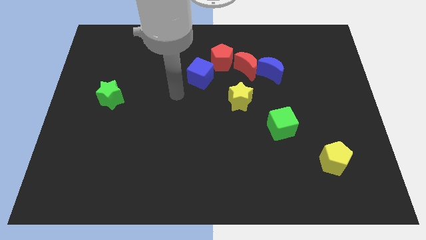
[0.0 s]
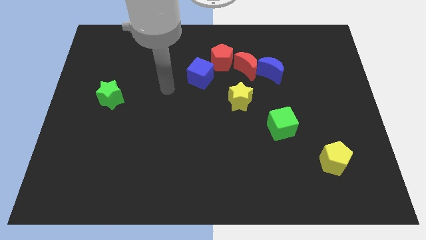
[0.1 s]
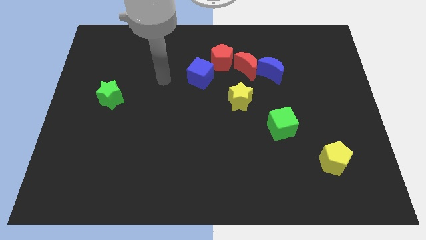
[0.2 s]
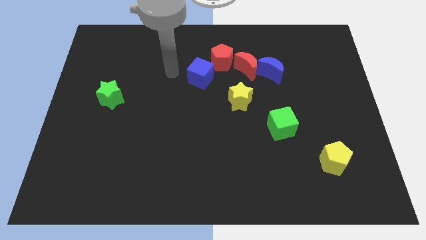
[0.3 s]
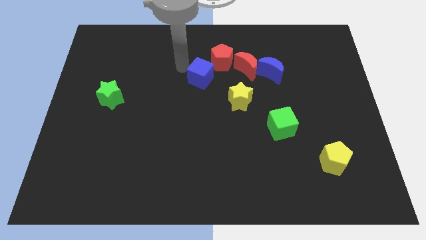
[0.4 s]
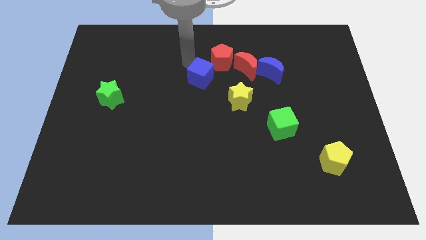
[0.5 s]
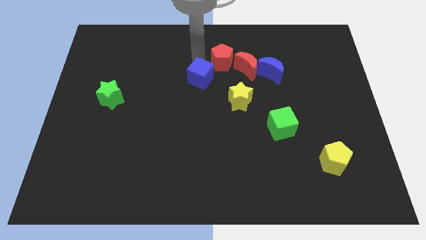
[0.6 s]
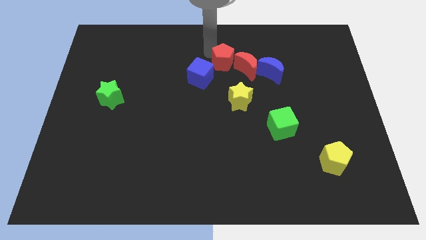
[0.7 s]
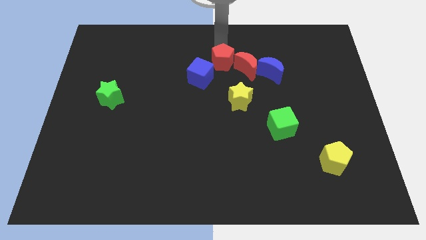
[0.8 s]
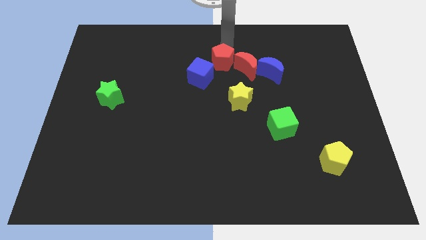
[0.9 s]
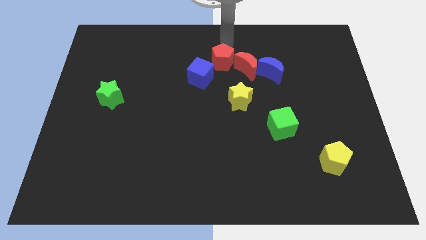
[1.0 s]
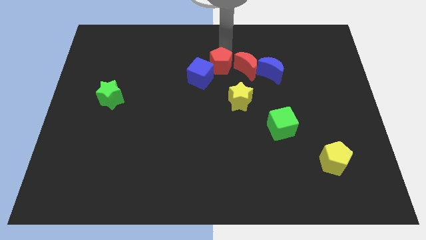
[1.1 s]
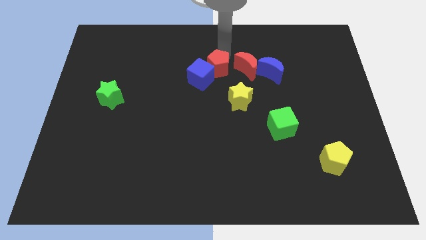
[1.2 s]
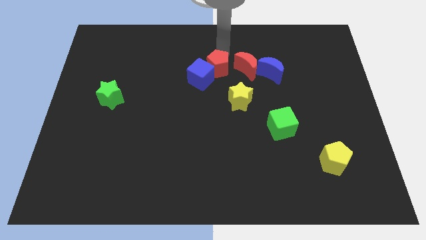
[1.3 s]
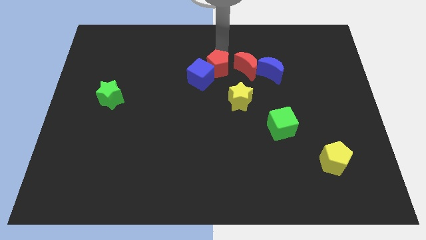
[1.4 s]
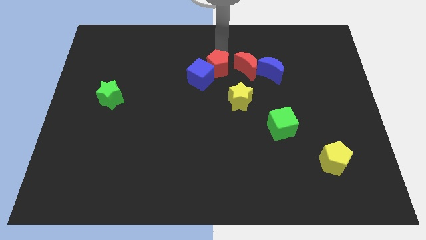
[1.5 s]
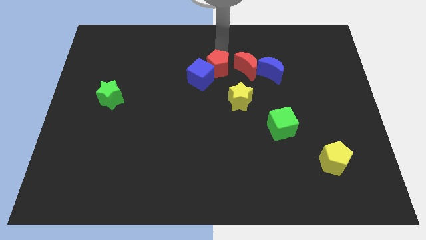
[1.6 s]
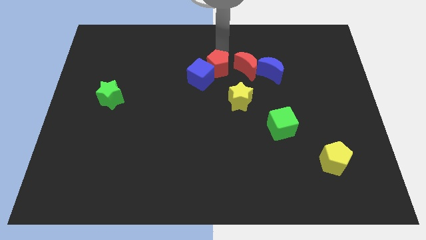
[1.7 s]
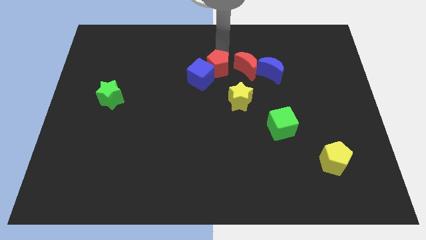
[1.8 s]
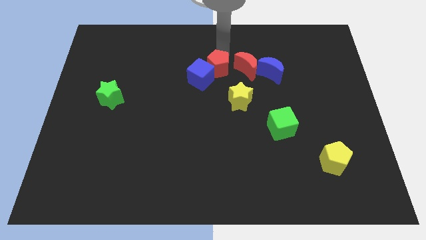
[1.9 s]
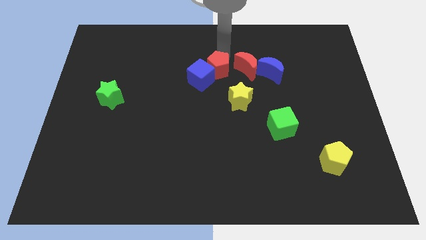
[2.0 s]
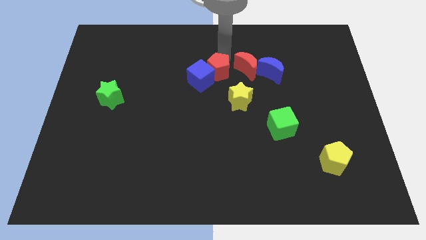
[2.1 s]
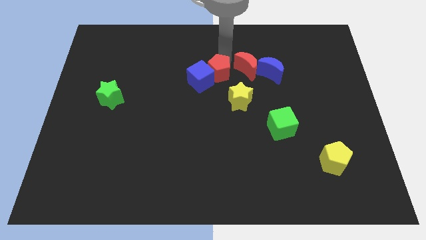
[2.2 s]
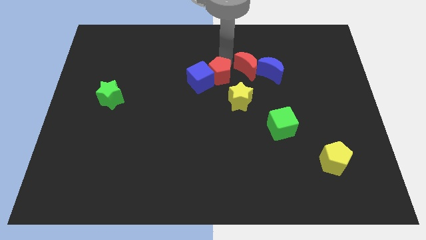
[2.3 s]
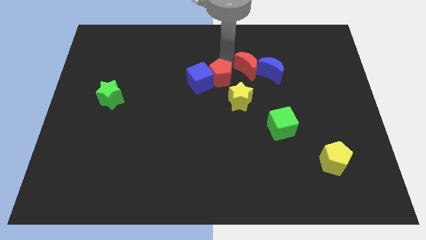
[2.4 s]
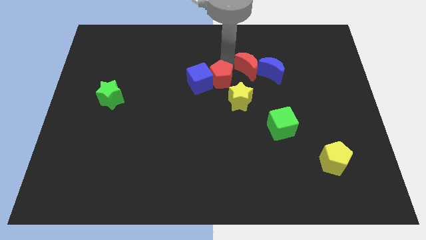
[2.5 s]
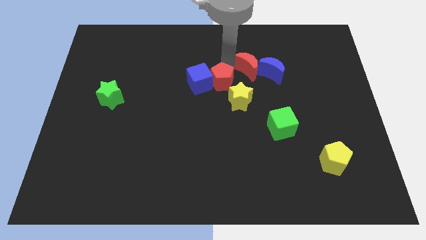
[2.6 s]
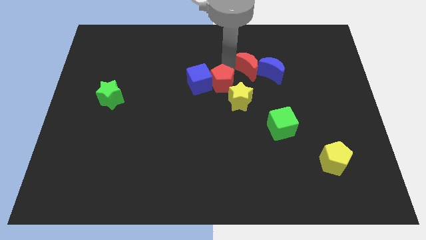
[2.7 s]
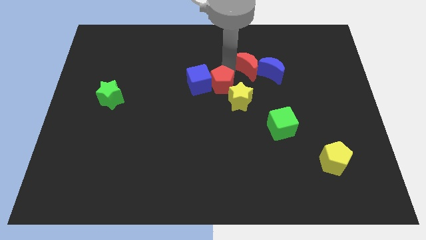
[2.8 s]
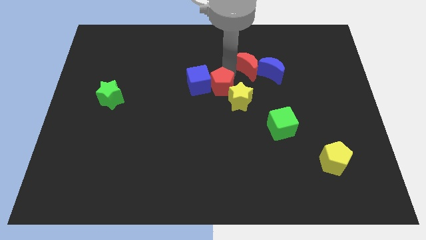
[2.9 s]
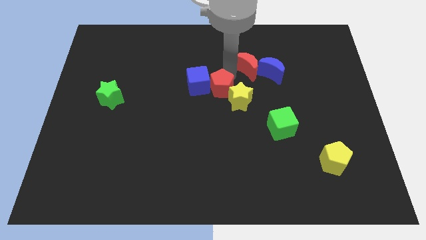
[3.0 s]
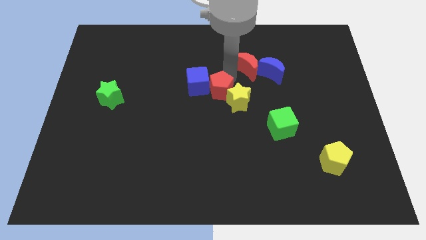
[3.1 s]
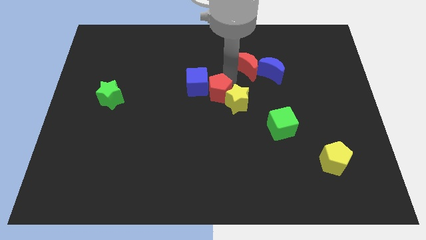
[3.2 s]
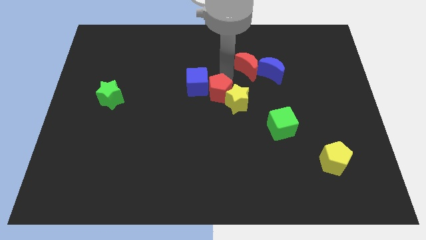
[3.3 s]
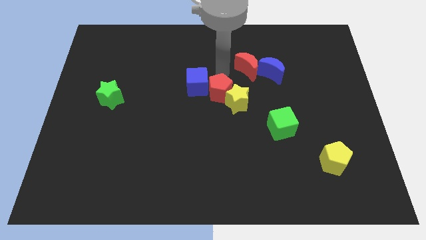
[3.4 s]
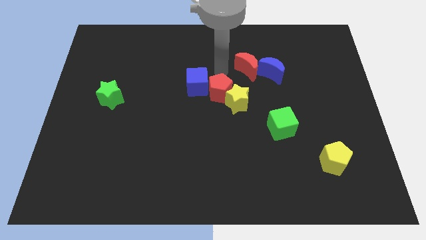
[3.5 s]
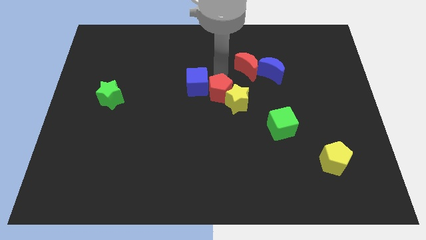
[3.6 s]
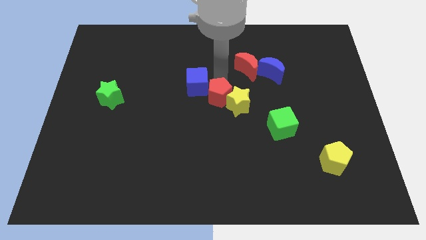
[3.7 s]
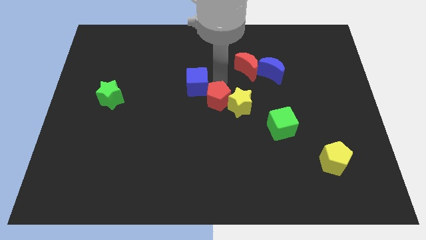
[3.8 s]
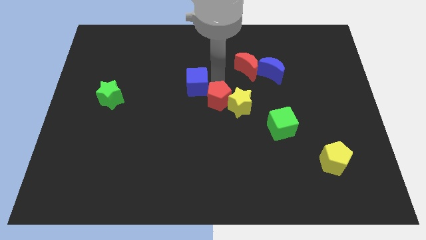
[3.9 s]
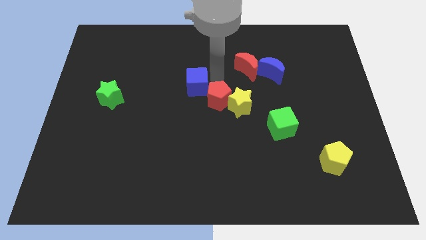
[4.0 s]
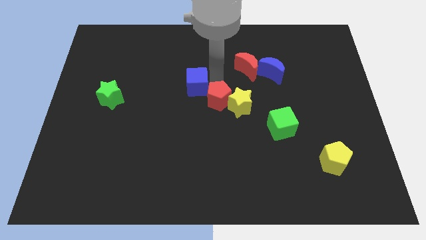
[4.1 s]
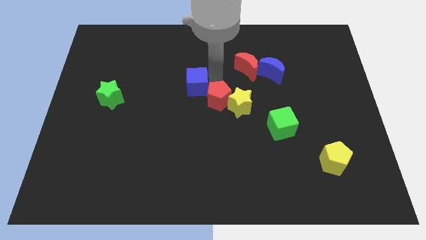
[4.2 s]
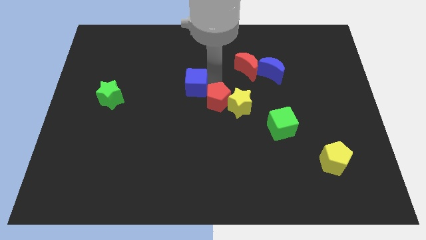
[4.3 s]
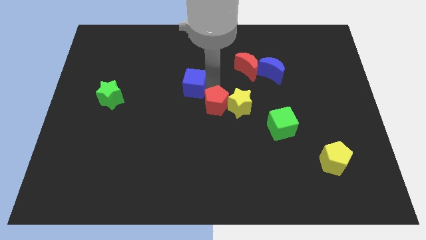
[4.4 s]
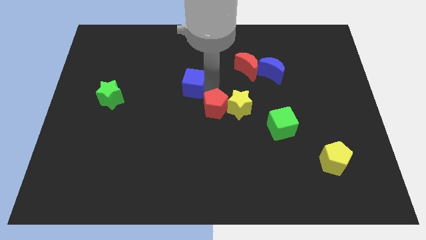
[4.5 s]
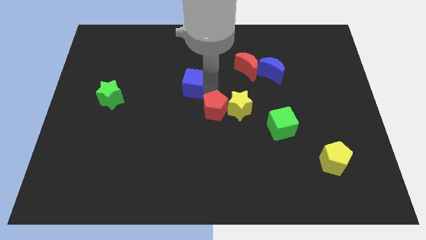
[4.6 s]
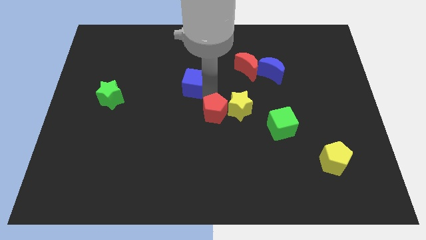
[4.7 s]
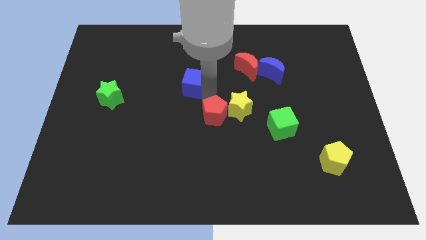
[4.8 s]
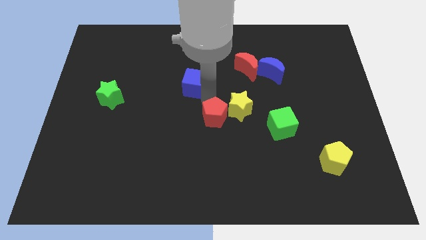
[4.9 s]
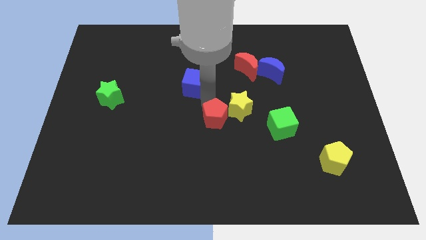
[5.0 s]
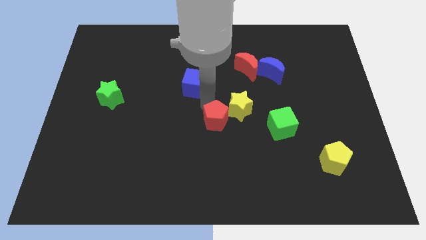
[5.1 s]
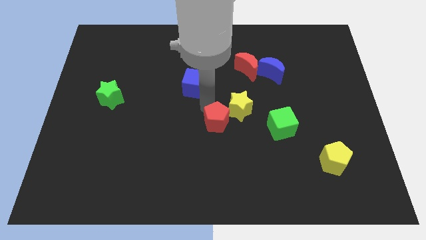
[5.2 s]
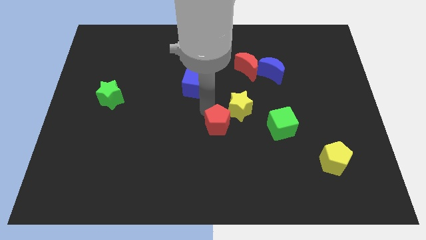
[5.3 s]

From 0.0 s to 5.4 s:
move the red pentagon downwards

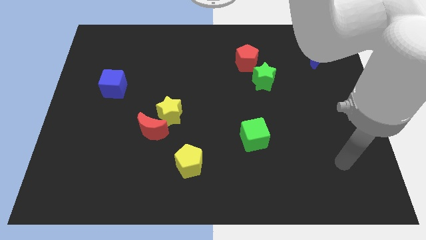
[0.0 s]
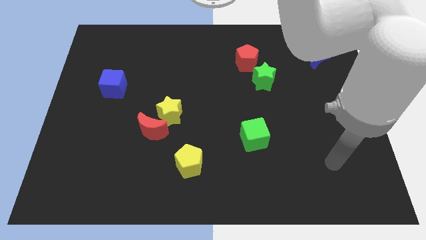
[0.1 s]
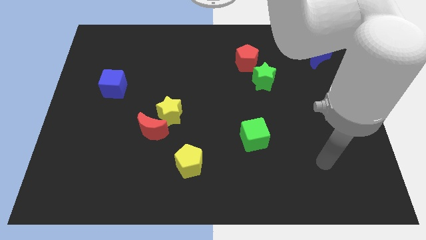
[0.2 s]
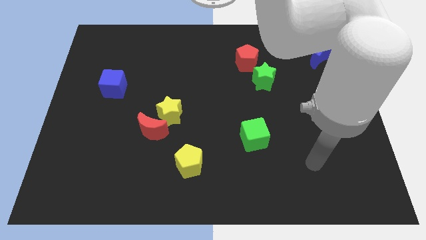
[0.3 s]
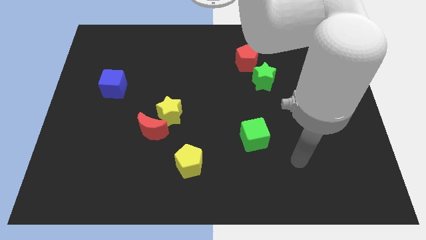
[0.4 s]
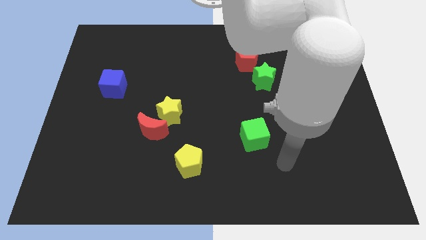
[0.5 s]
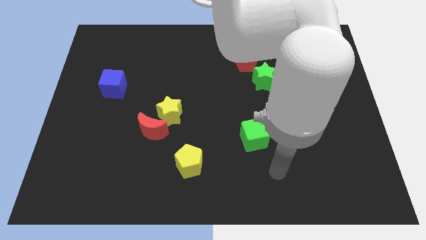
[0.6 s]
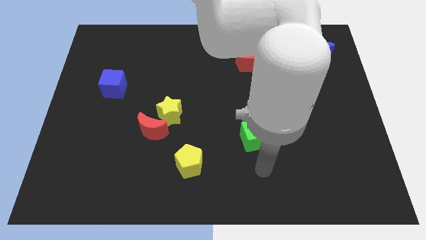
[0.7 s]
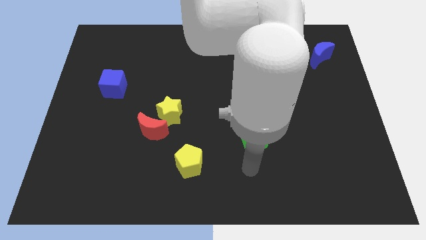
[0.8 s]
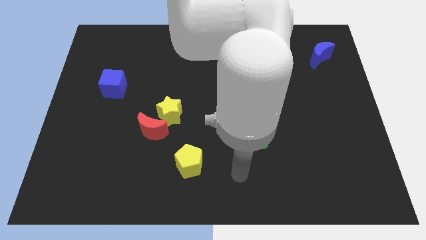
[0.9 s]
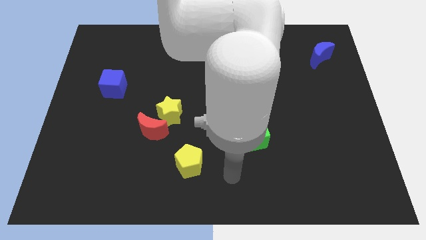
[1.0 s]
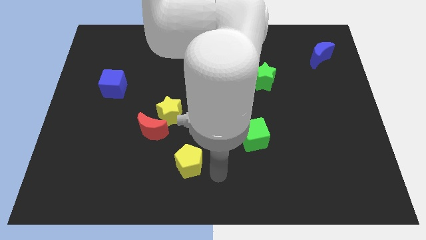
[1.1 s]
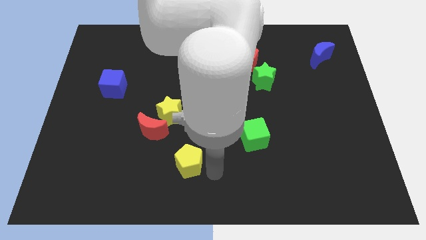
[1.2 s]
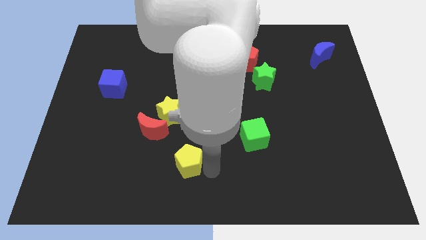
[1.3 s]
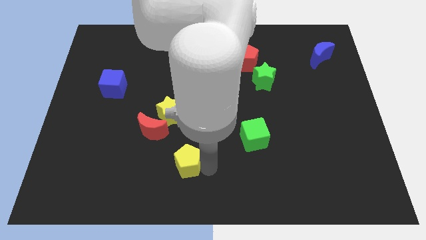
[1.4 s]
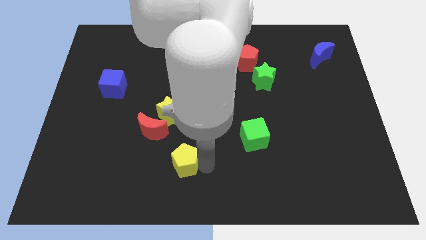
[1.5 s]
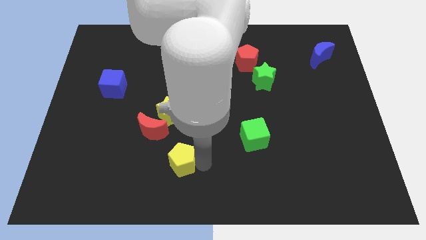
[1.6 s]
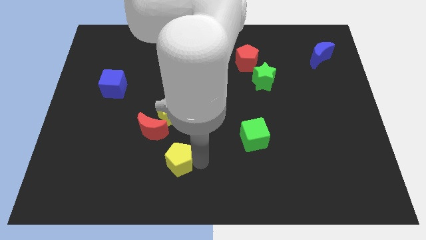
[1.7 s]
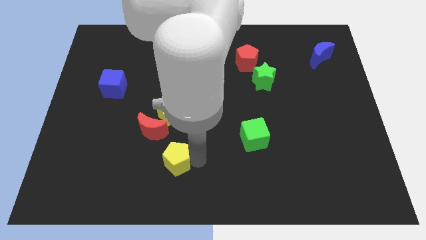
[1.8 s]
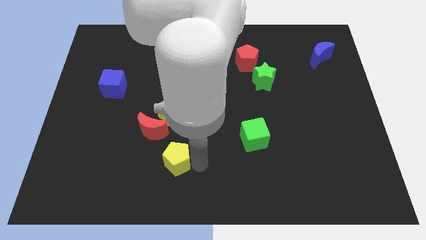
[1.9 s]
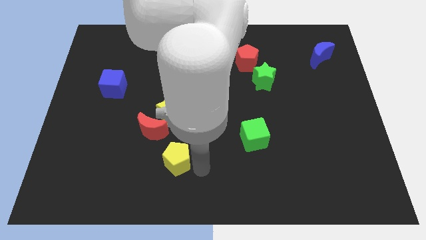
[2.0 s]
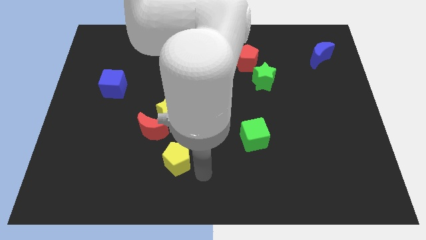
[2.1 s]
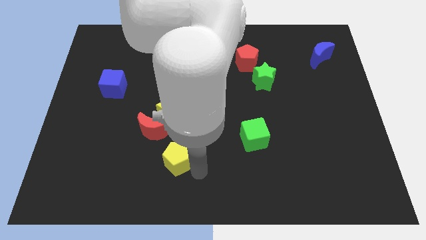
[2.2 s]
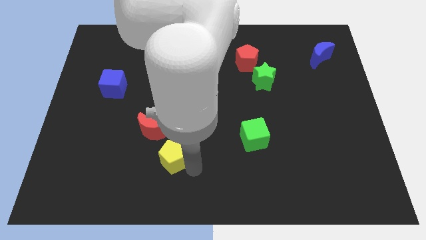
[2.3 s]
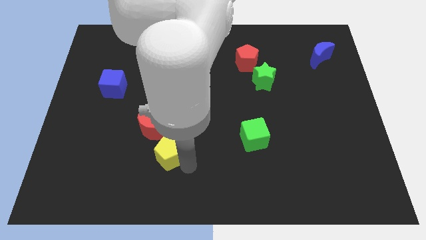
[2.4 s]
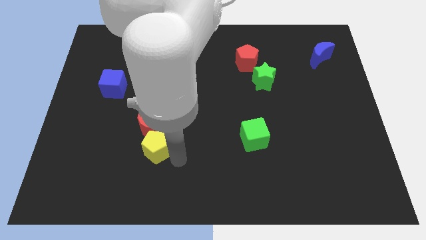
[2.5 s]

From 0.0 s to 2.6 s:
slightly push the yellow pentagon upwards and then left
